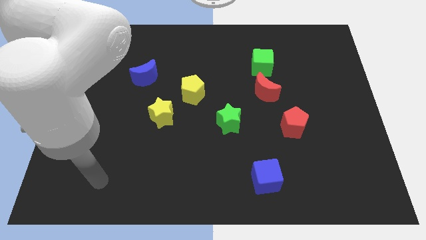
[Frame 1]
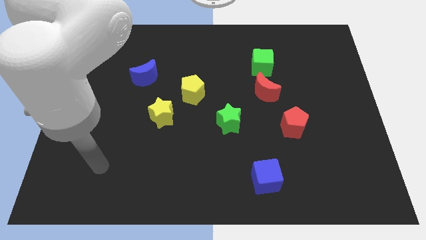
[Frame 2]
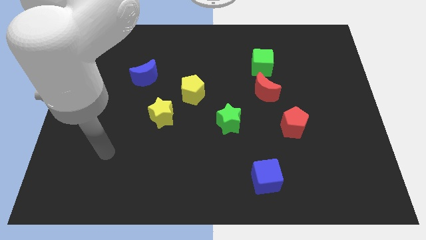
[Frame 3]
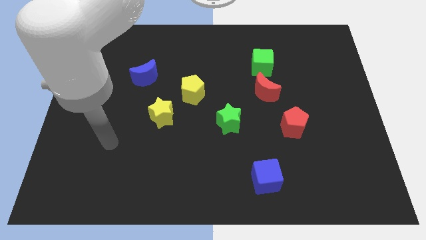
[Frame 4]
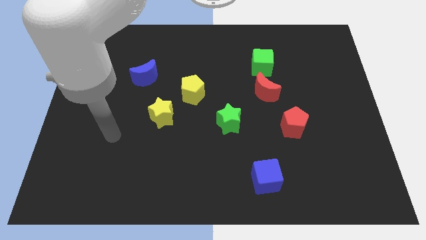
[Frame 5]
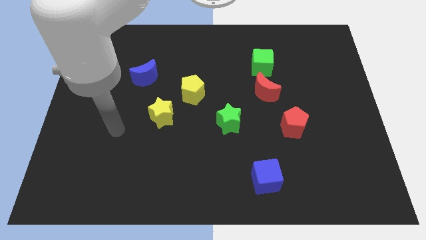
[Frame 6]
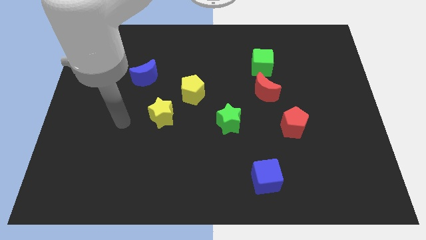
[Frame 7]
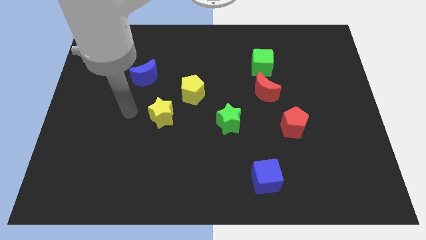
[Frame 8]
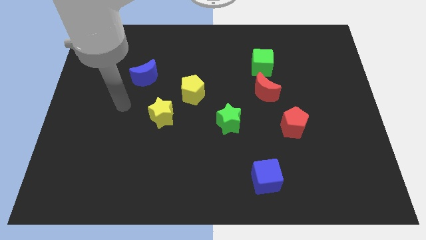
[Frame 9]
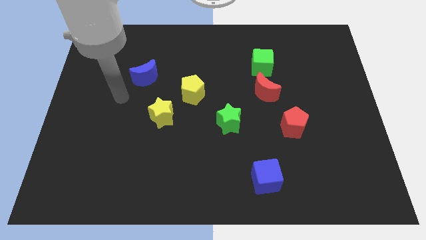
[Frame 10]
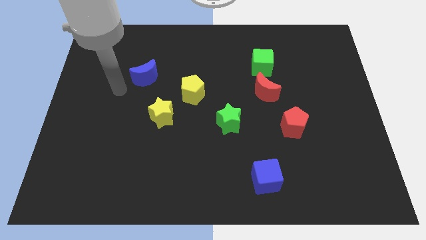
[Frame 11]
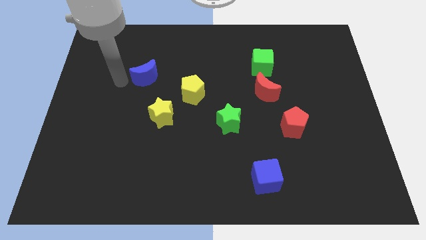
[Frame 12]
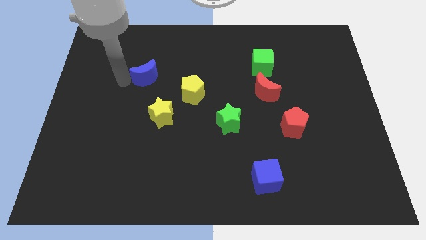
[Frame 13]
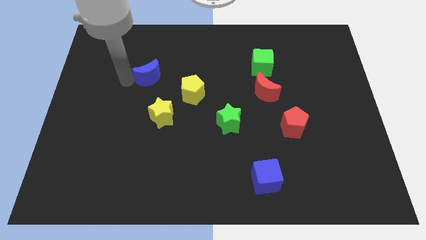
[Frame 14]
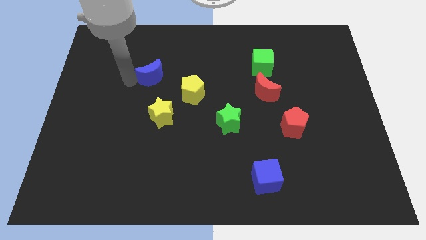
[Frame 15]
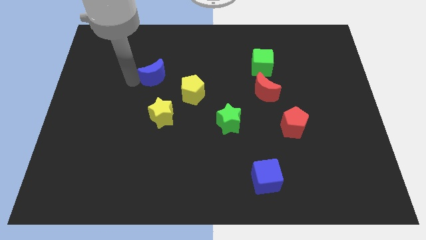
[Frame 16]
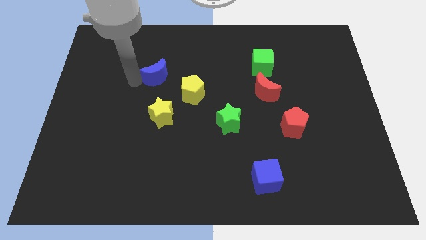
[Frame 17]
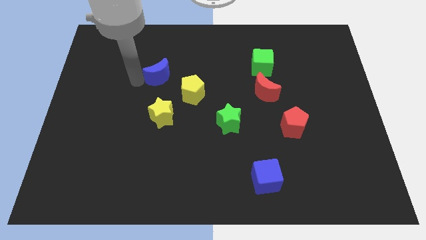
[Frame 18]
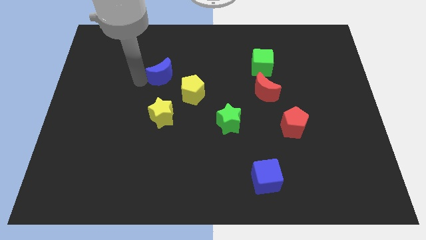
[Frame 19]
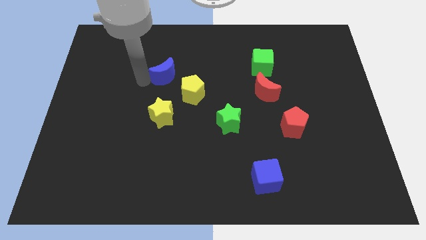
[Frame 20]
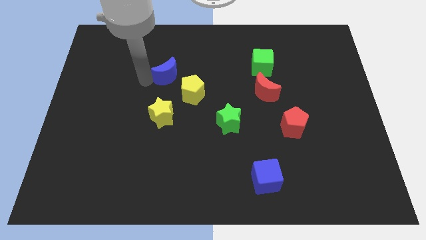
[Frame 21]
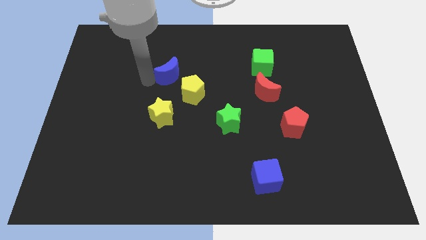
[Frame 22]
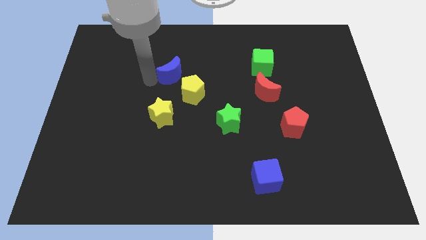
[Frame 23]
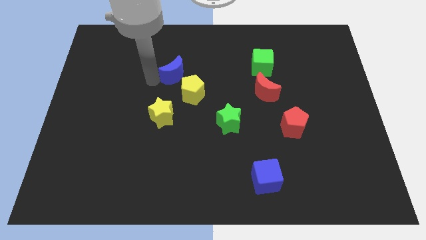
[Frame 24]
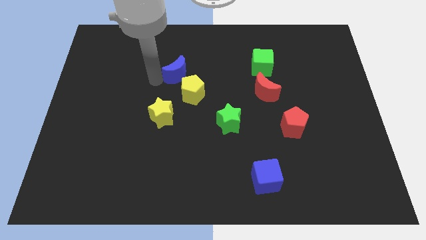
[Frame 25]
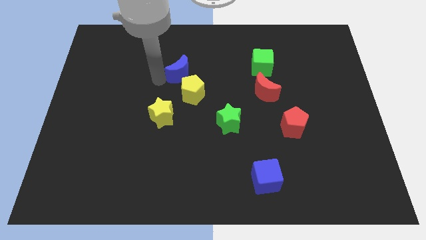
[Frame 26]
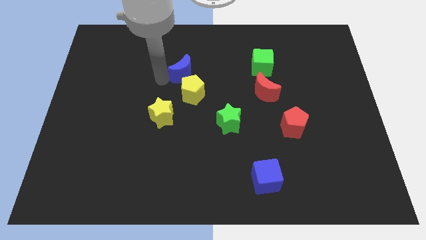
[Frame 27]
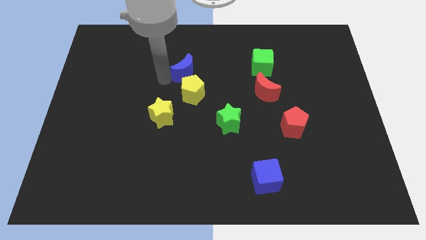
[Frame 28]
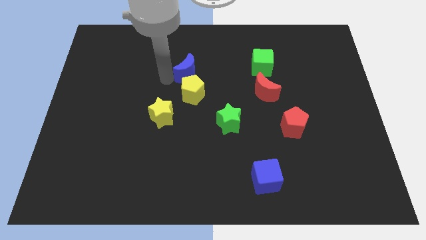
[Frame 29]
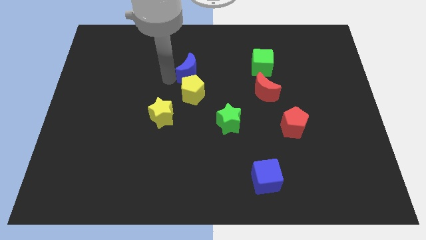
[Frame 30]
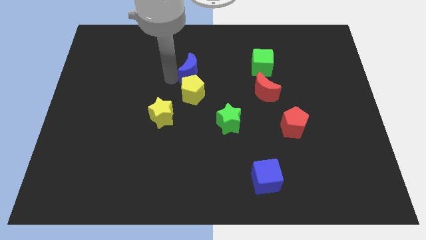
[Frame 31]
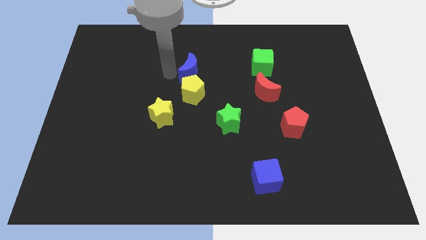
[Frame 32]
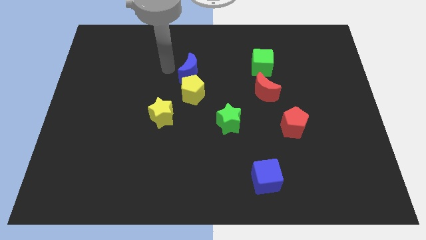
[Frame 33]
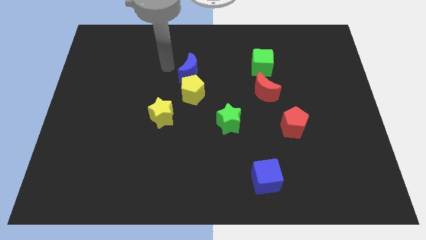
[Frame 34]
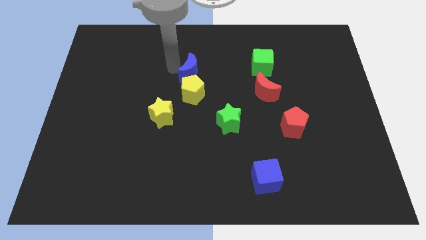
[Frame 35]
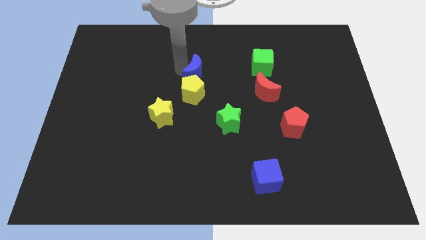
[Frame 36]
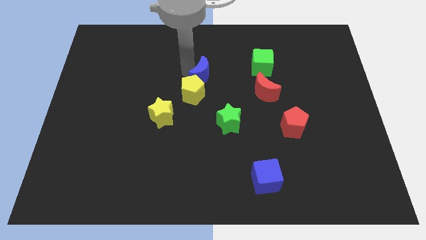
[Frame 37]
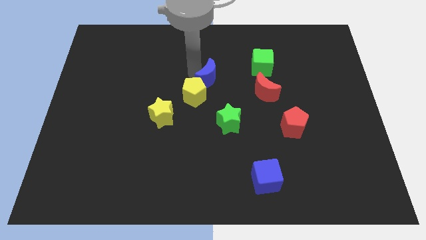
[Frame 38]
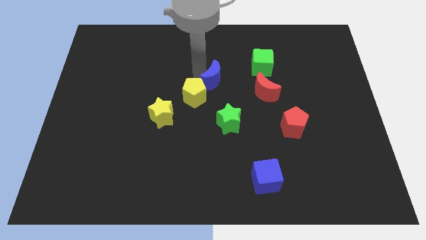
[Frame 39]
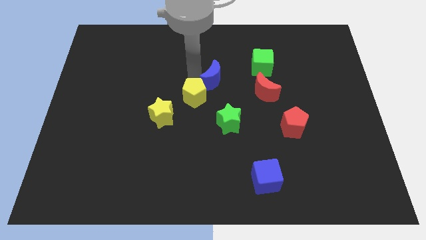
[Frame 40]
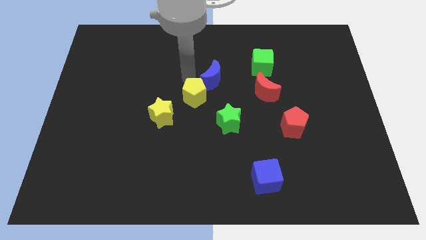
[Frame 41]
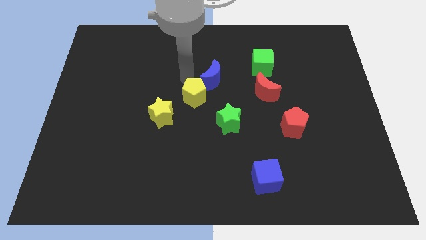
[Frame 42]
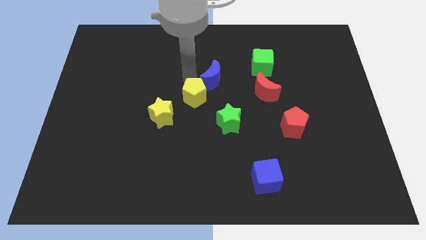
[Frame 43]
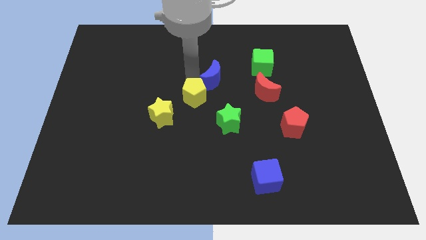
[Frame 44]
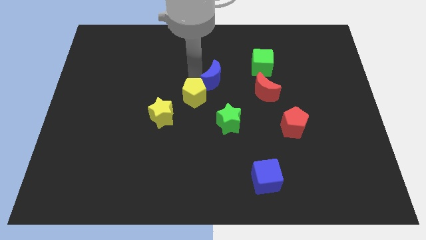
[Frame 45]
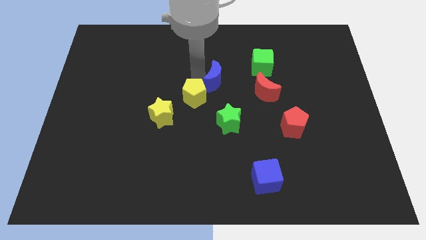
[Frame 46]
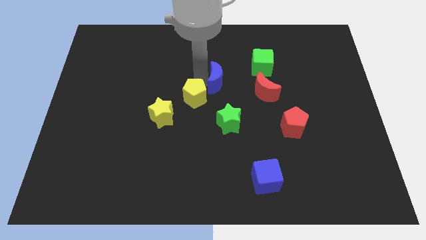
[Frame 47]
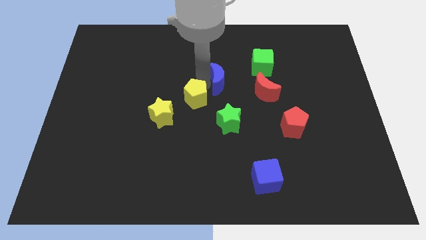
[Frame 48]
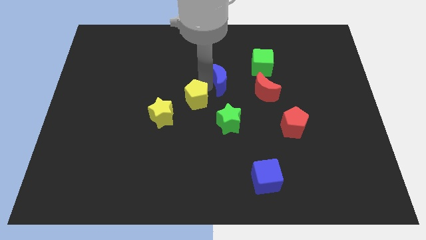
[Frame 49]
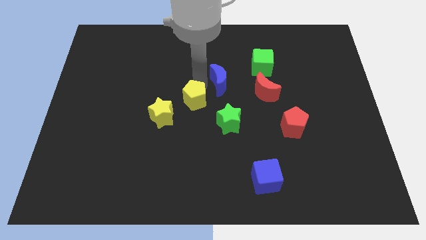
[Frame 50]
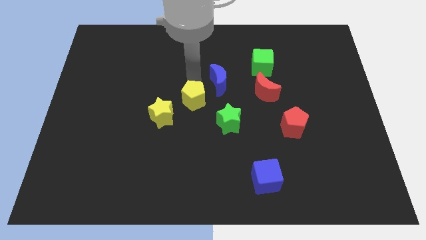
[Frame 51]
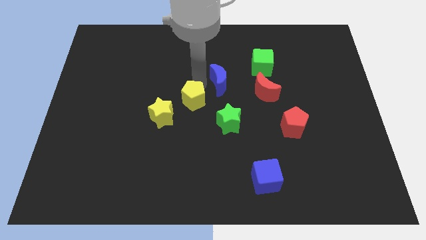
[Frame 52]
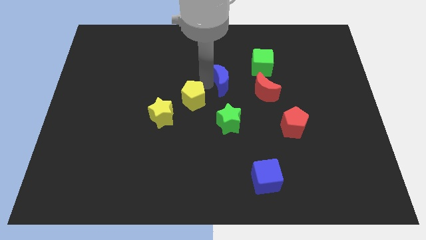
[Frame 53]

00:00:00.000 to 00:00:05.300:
slide the blue moon diagonally down and to the left of the green cube

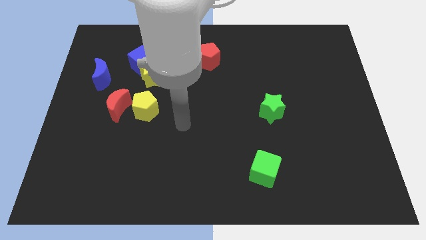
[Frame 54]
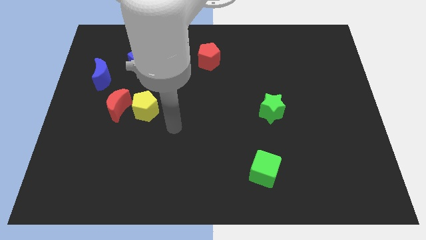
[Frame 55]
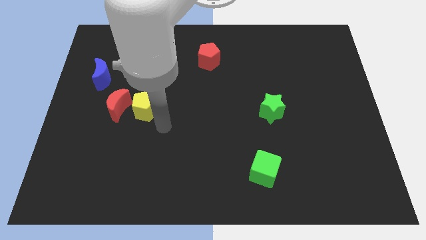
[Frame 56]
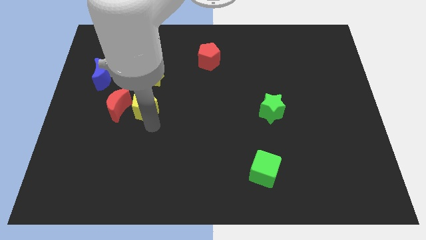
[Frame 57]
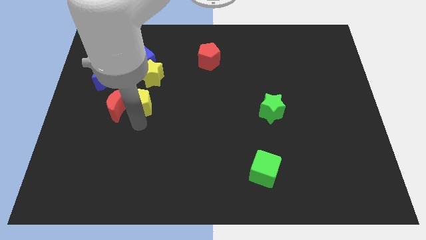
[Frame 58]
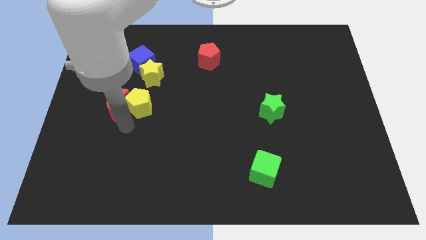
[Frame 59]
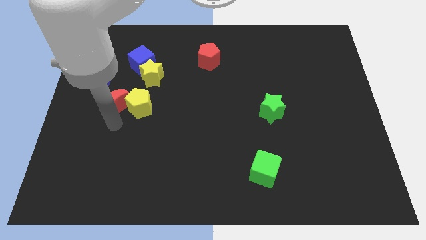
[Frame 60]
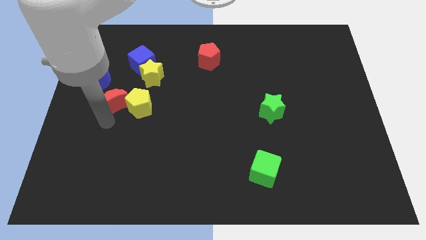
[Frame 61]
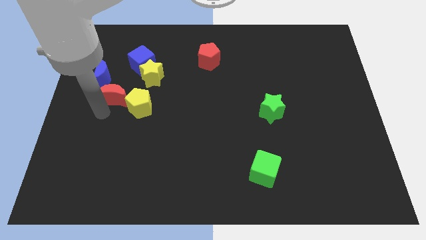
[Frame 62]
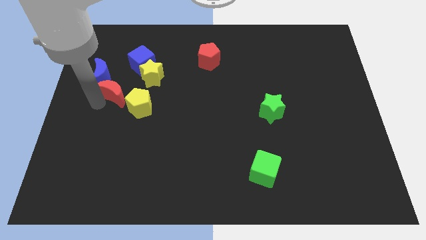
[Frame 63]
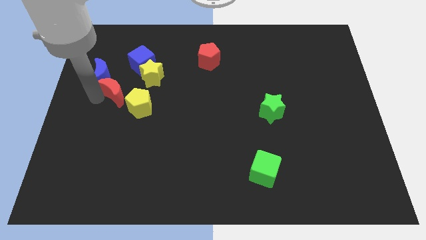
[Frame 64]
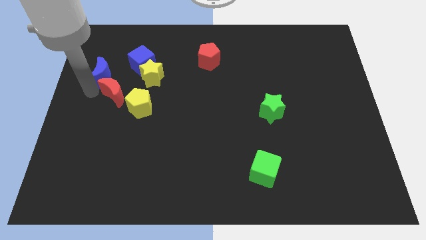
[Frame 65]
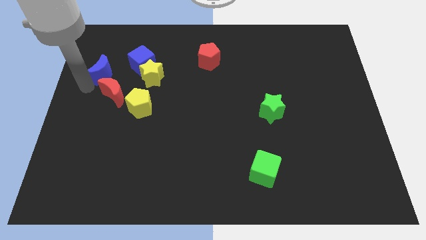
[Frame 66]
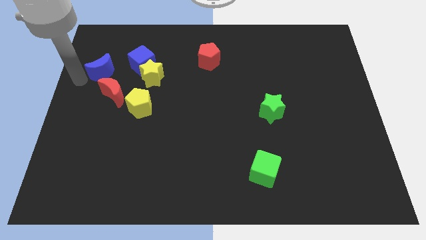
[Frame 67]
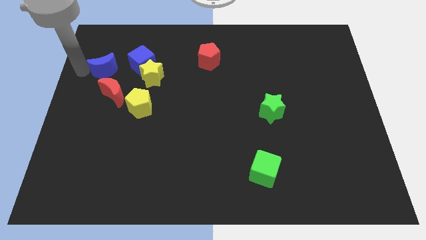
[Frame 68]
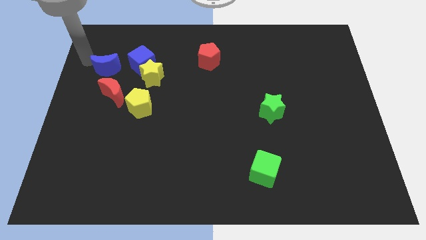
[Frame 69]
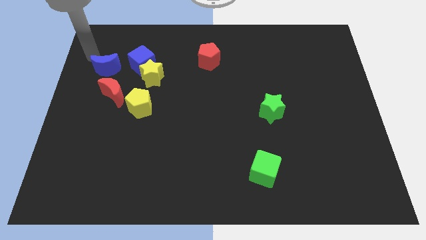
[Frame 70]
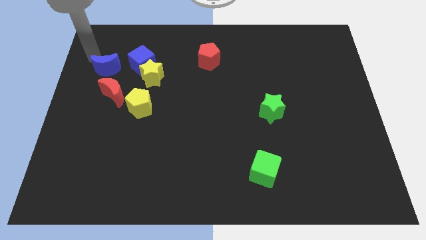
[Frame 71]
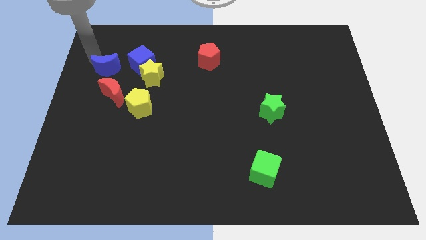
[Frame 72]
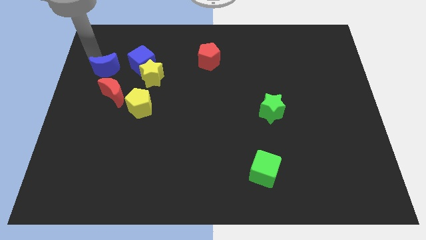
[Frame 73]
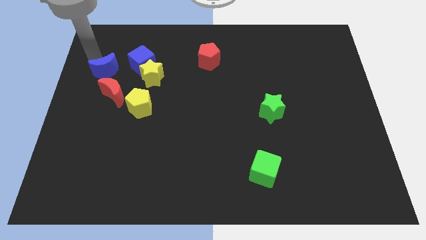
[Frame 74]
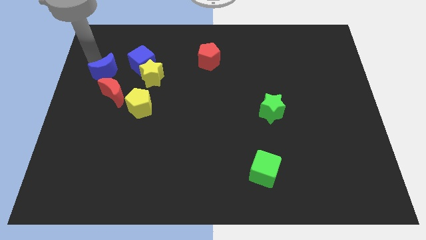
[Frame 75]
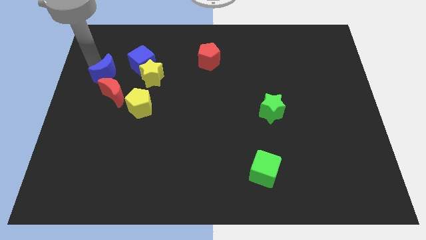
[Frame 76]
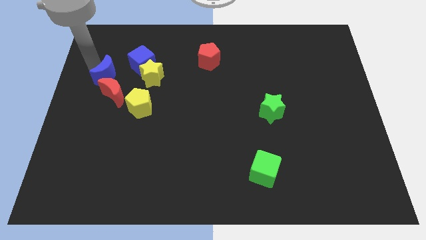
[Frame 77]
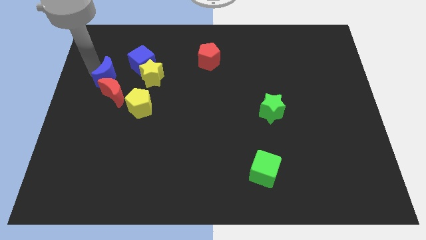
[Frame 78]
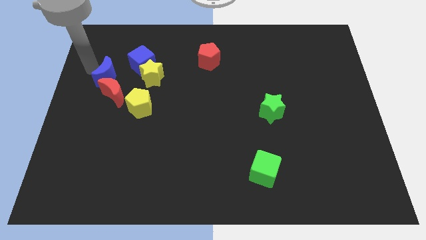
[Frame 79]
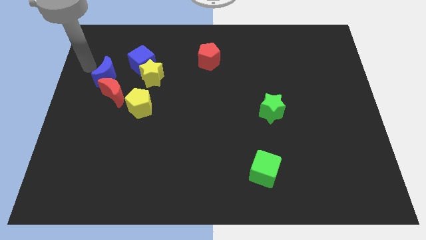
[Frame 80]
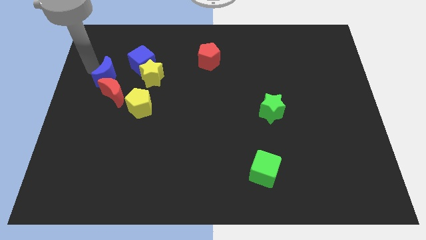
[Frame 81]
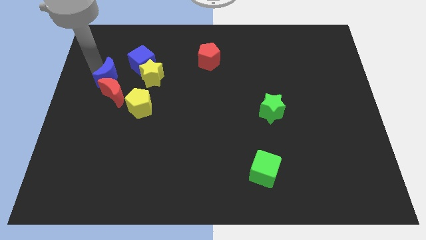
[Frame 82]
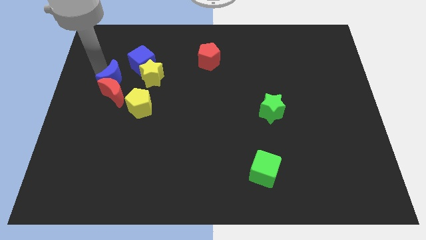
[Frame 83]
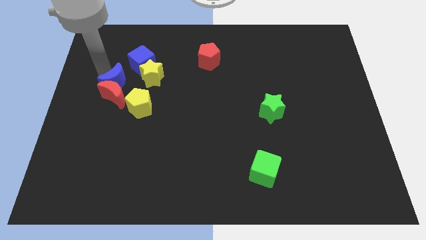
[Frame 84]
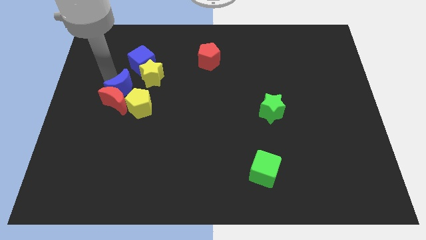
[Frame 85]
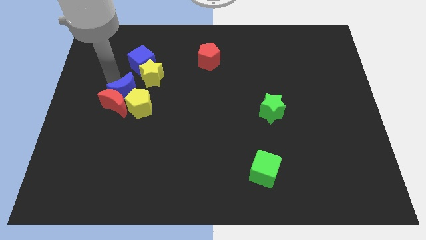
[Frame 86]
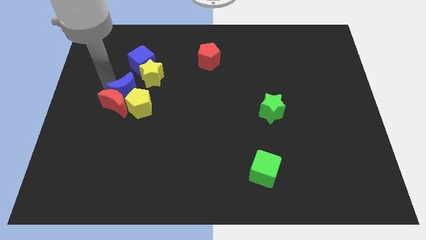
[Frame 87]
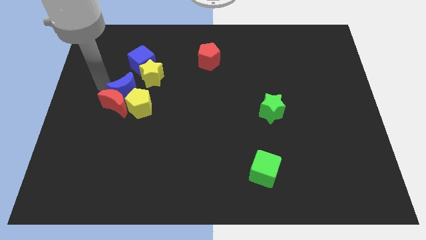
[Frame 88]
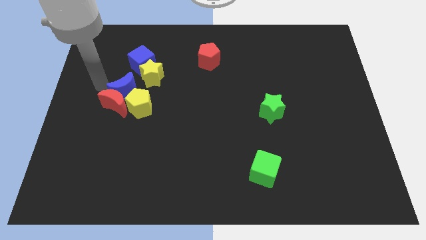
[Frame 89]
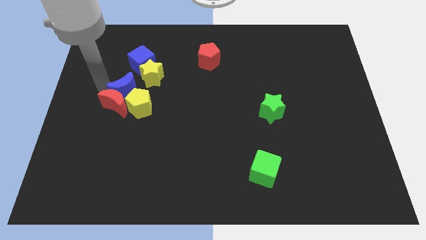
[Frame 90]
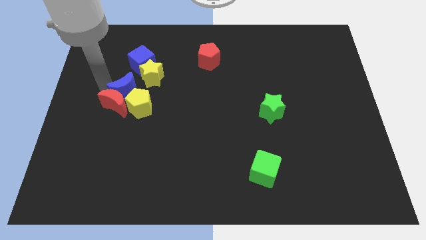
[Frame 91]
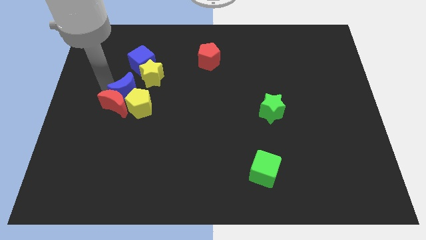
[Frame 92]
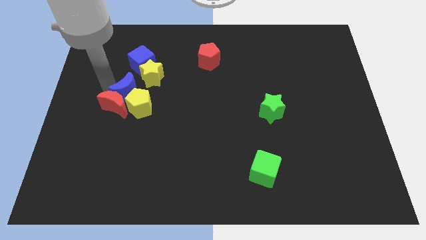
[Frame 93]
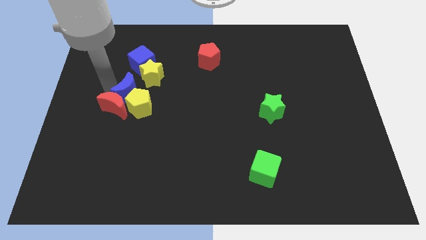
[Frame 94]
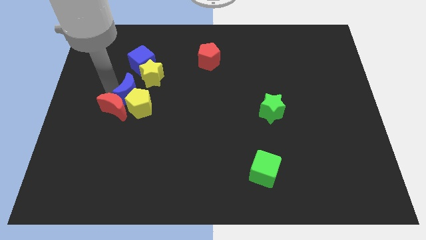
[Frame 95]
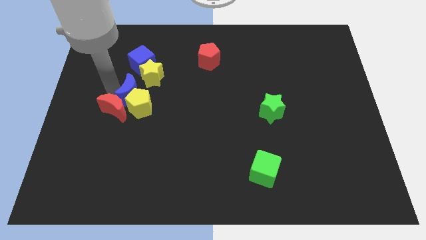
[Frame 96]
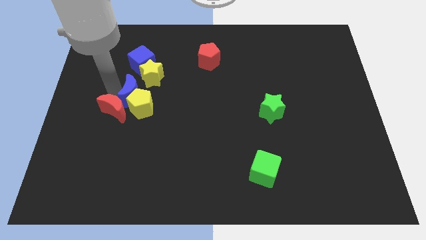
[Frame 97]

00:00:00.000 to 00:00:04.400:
move the blue moon just right of the red moon
